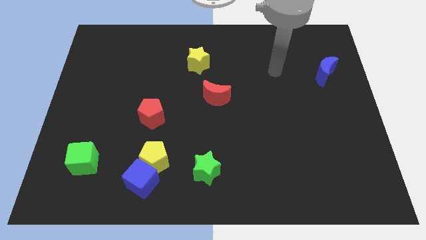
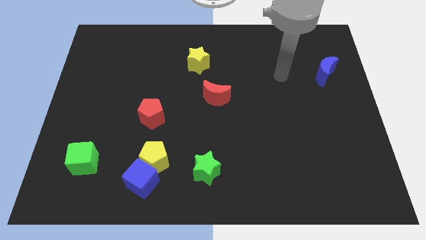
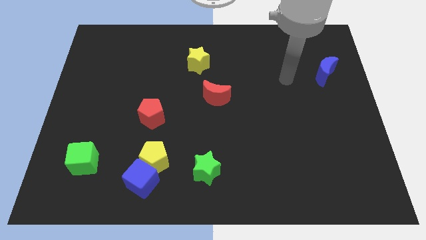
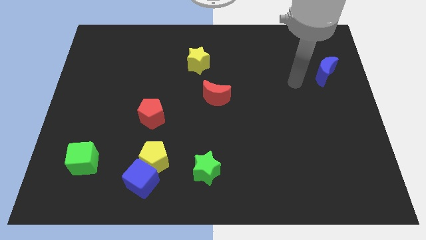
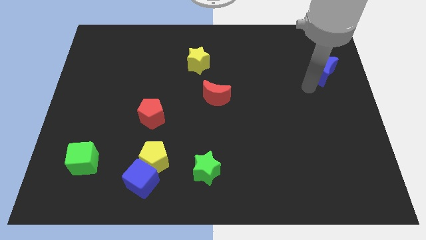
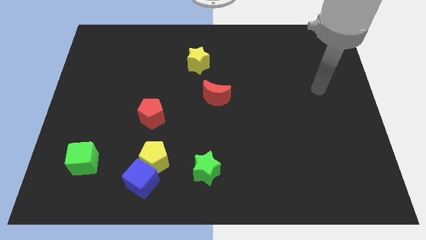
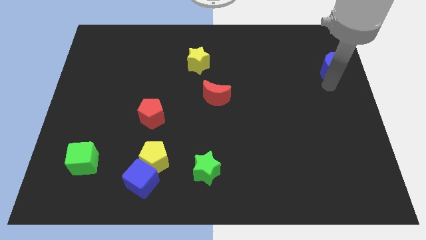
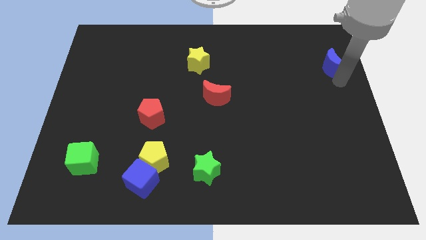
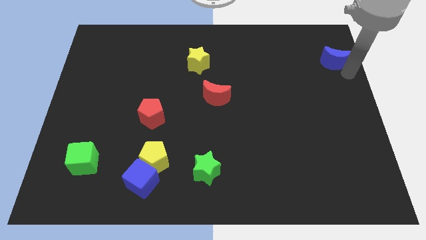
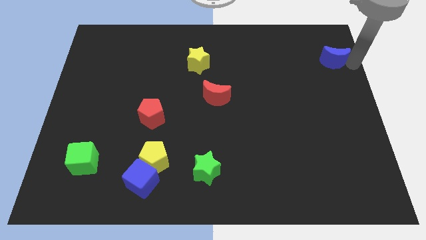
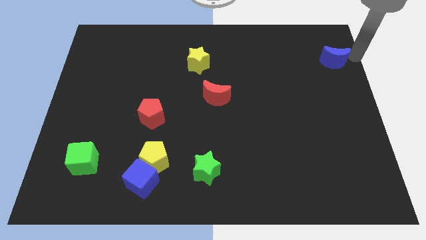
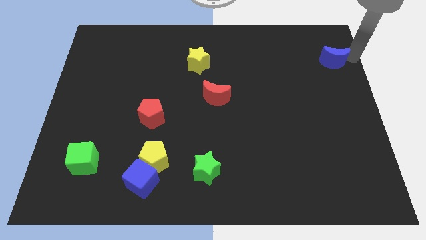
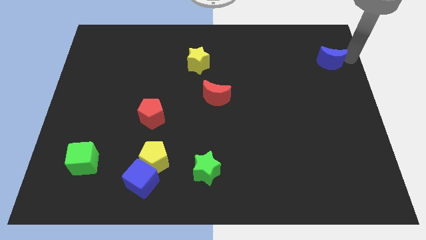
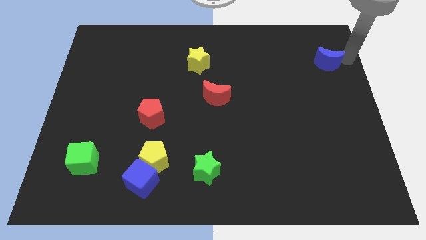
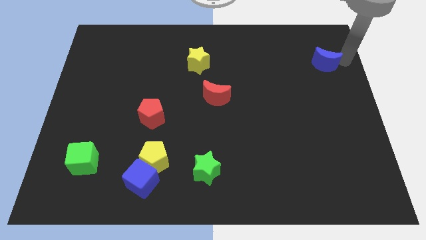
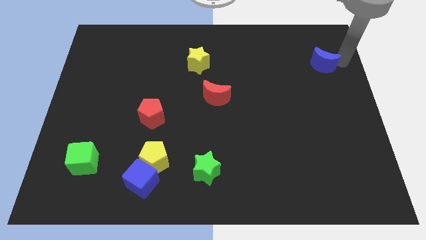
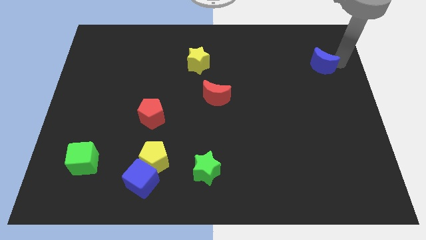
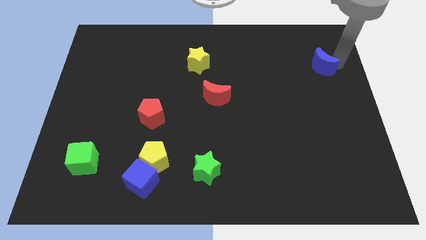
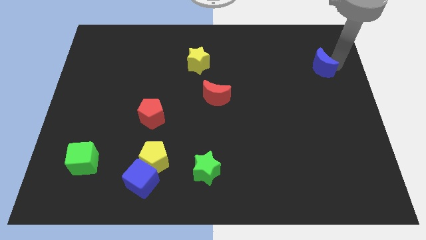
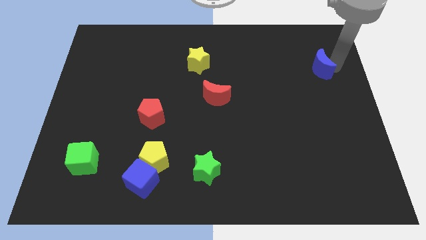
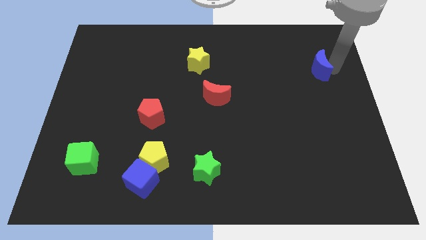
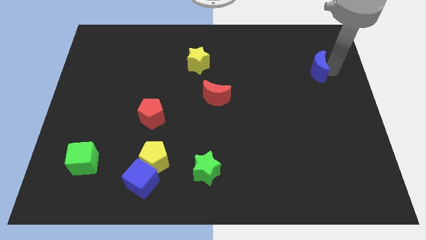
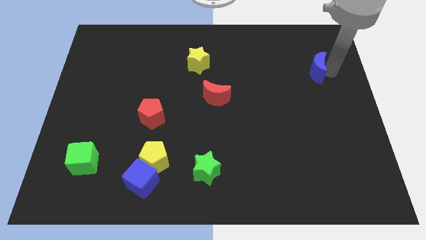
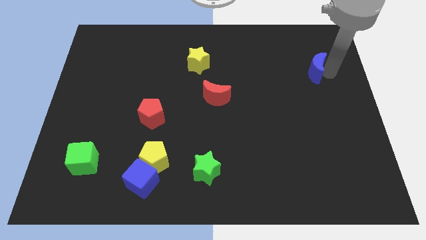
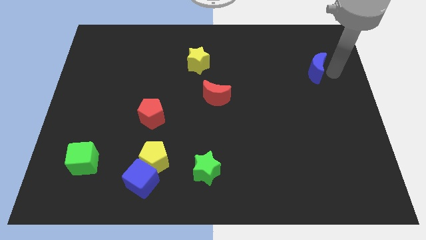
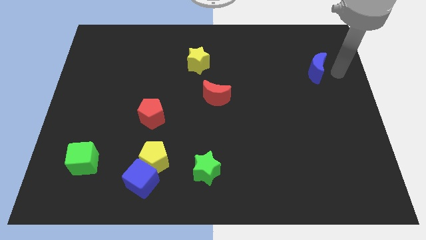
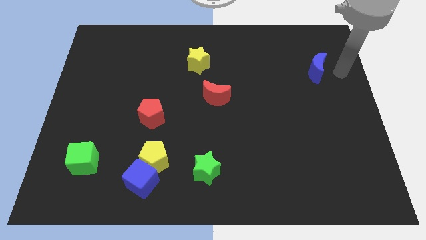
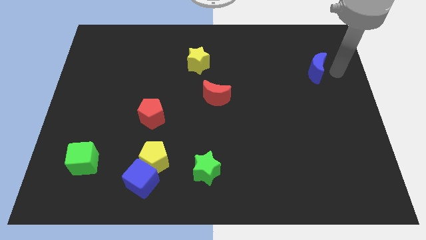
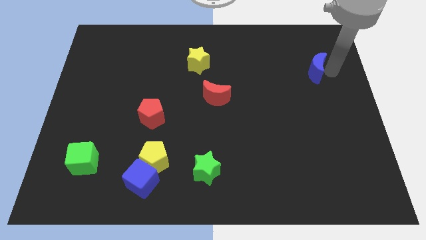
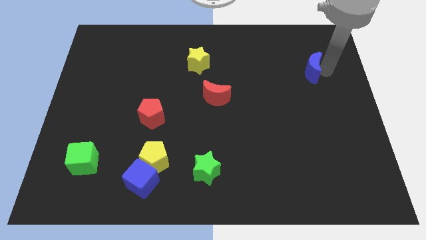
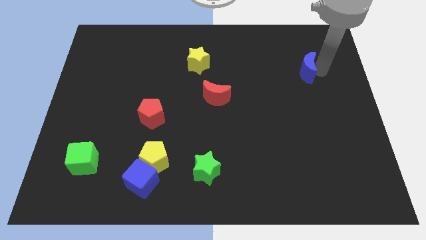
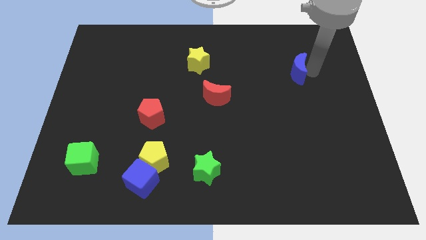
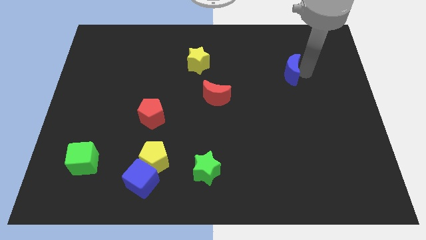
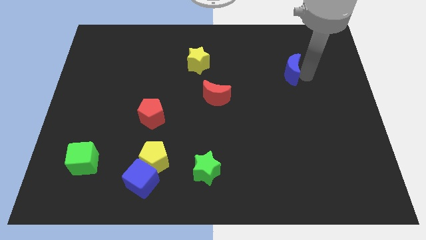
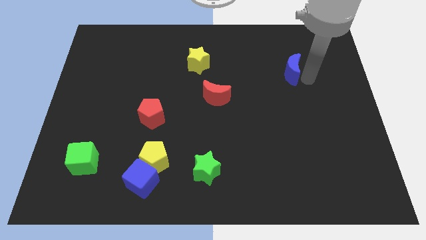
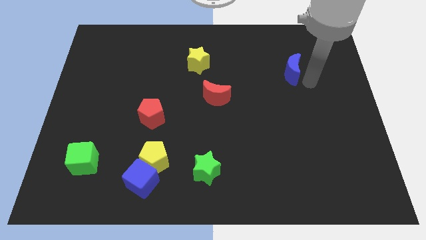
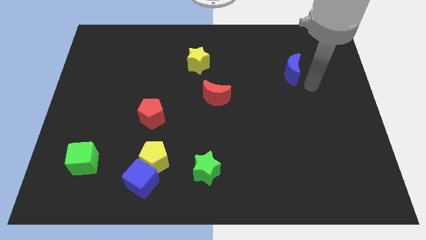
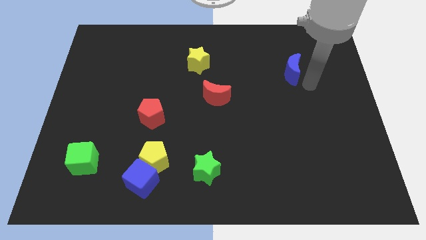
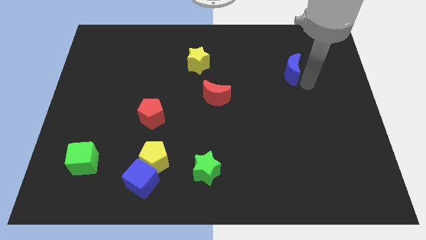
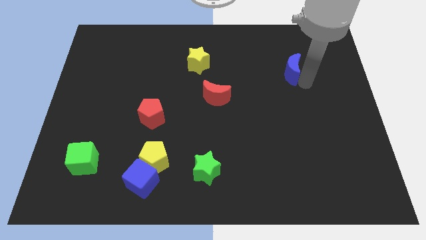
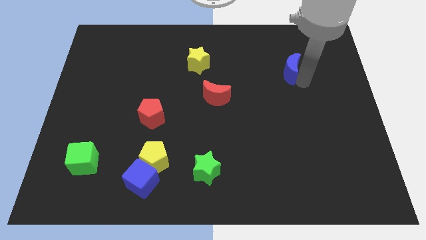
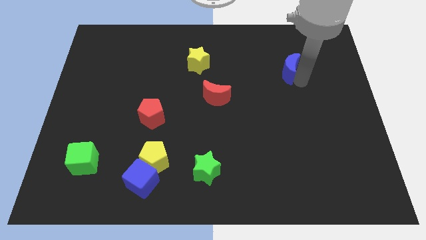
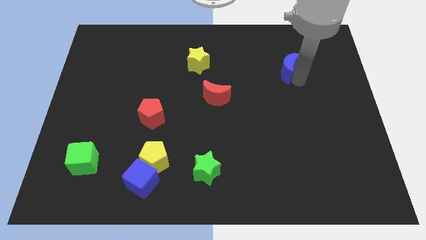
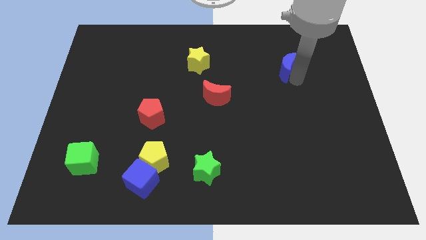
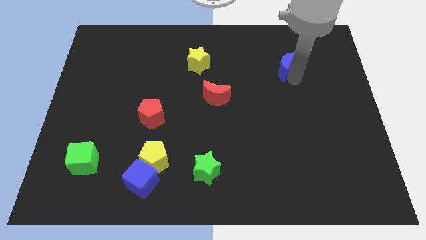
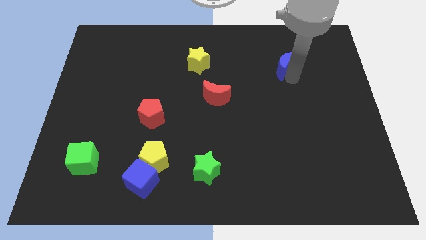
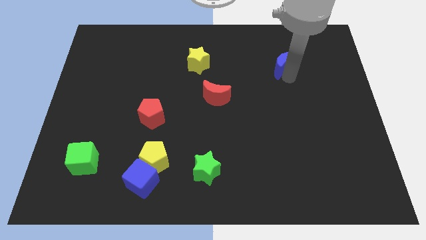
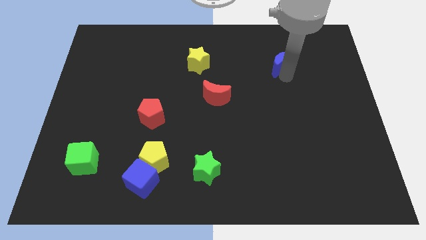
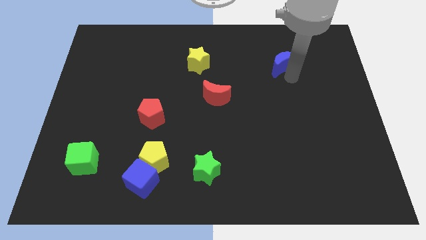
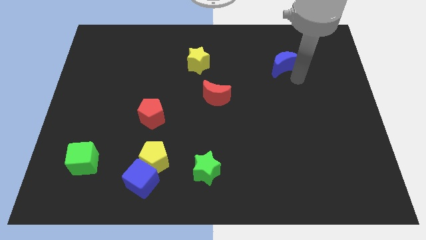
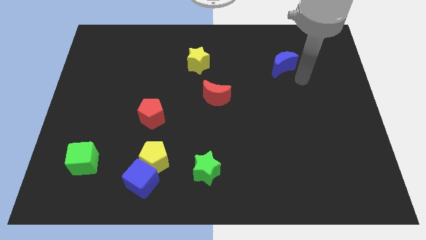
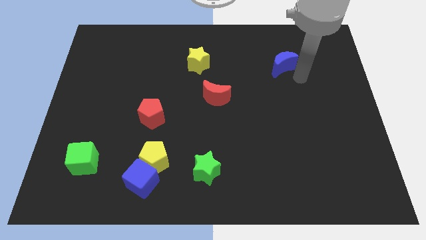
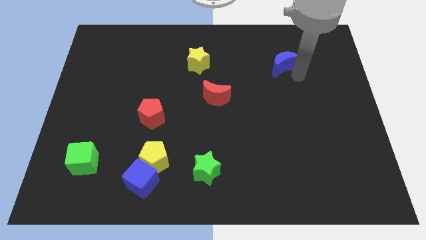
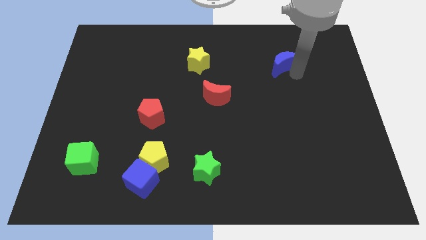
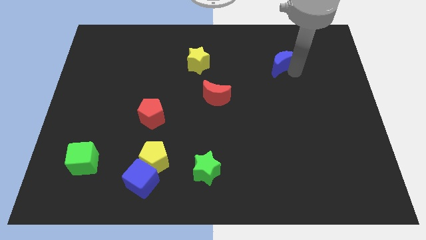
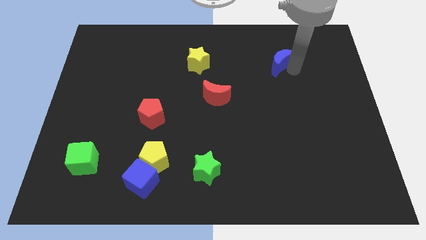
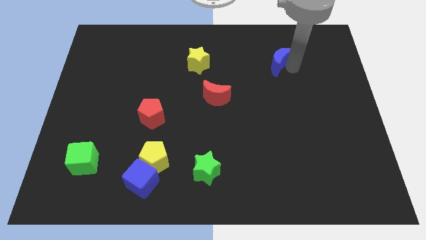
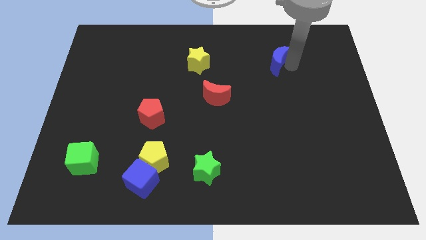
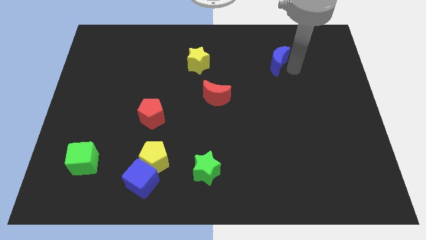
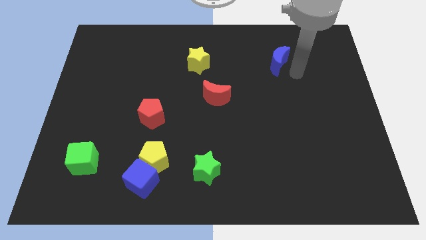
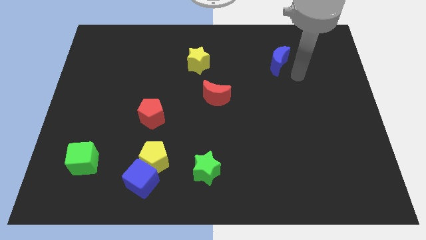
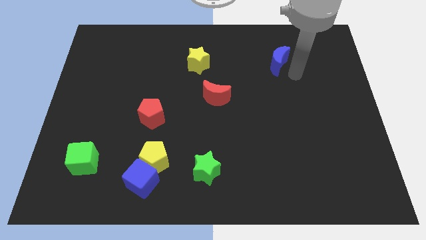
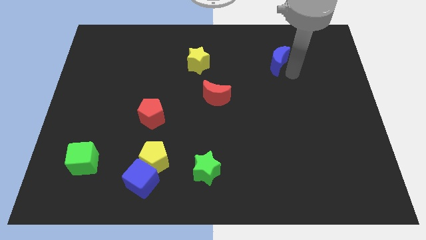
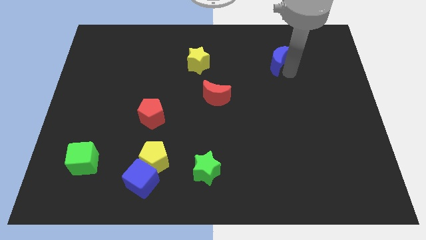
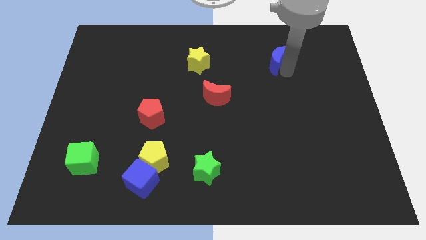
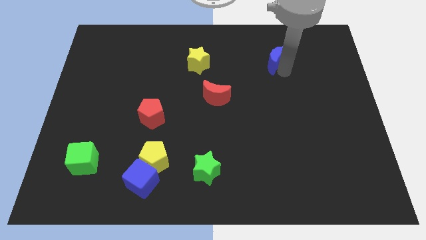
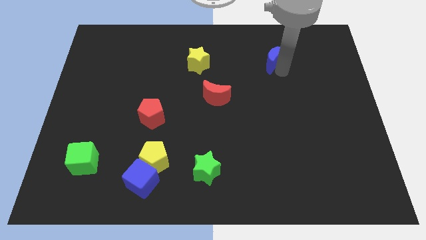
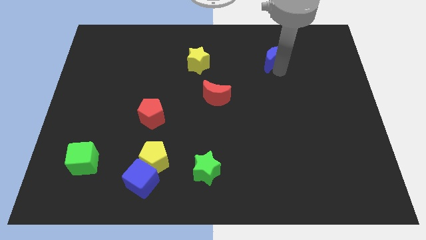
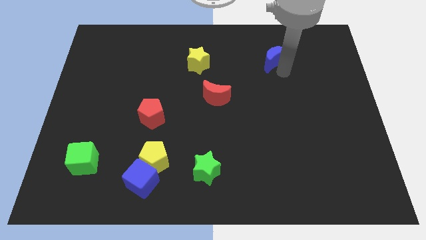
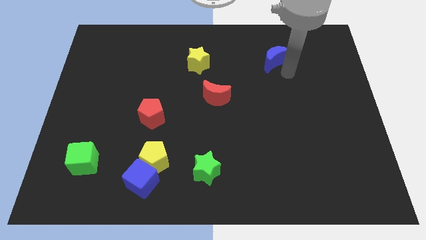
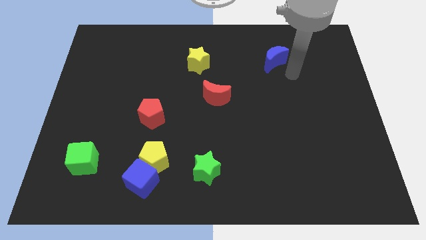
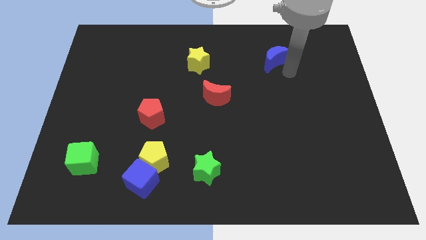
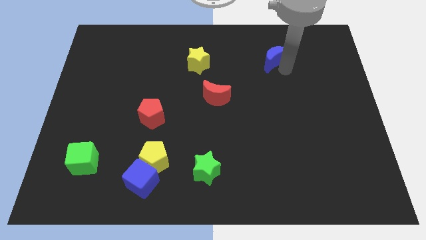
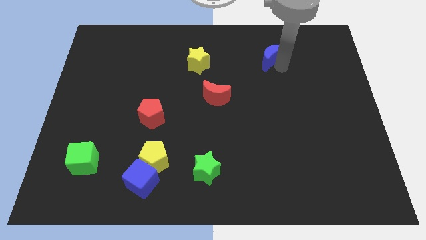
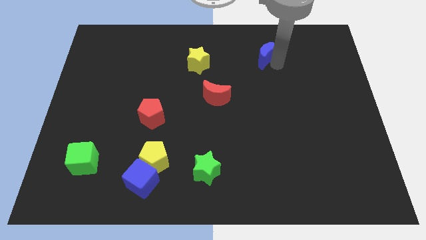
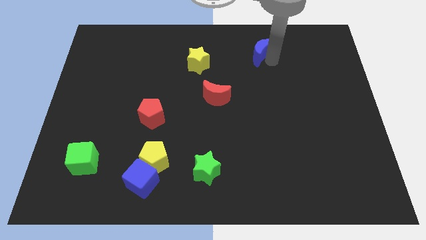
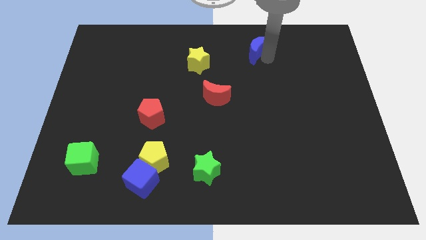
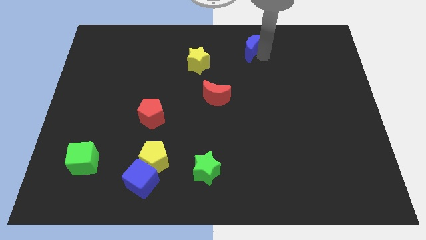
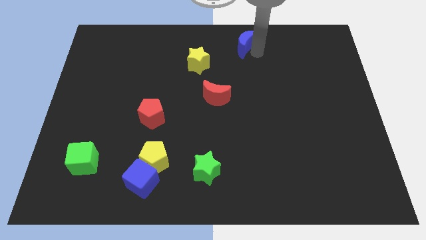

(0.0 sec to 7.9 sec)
move the blue moon to the towards your base
